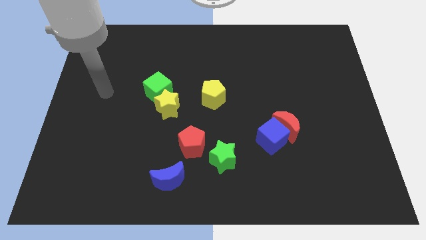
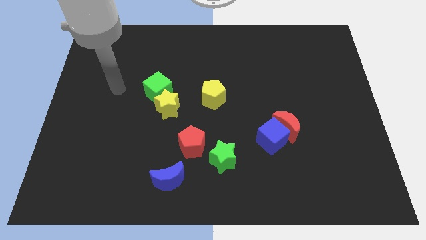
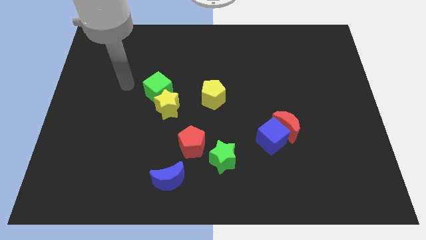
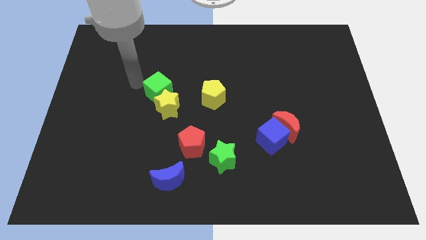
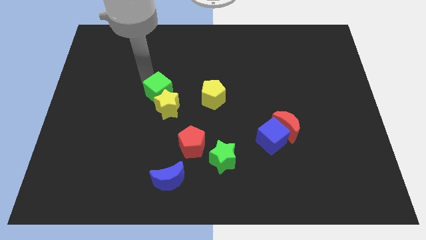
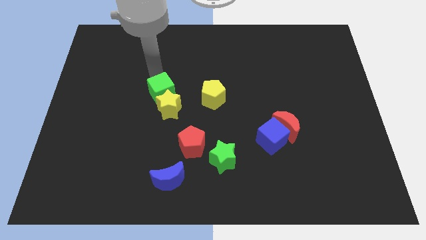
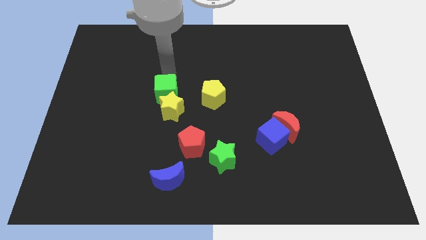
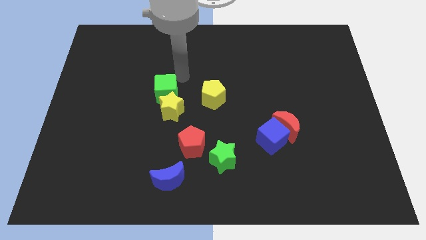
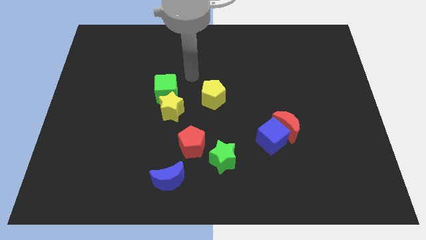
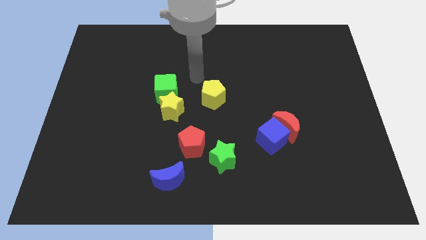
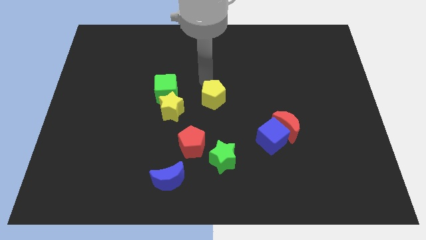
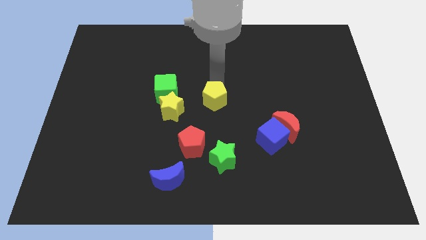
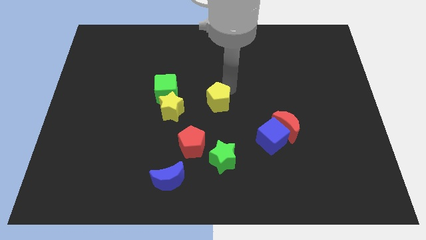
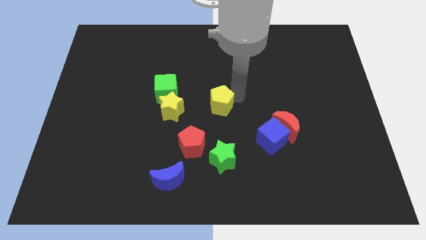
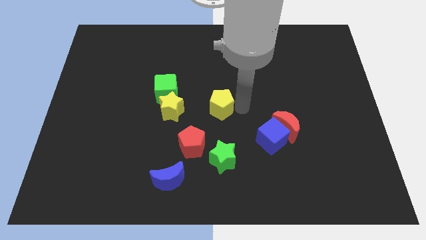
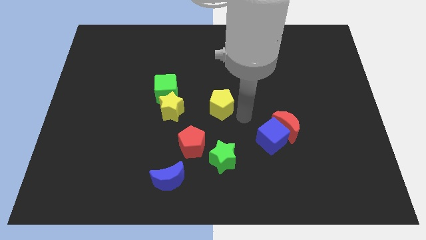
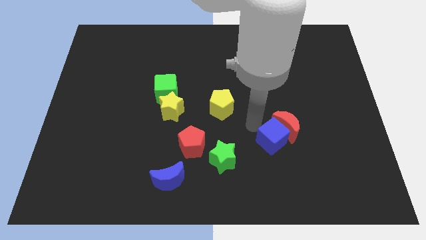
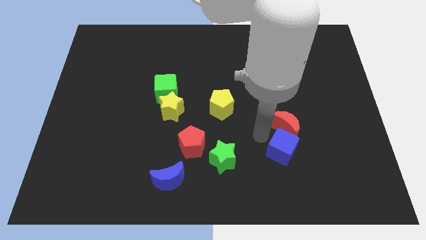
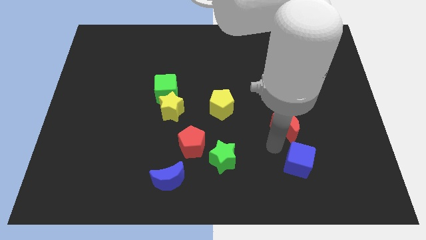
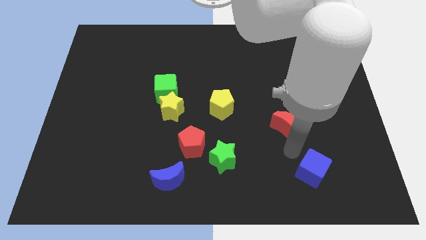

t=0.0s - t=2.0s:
separate the red moon from the blue cube

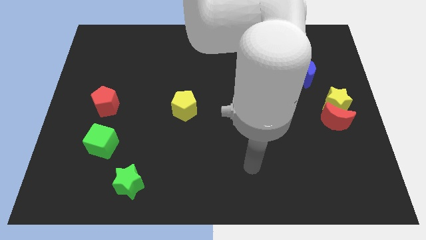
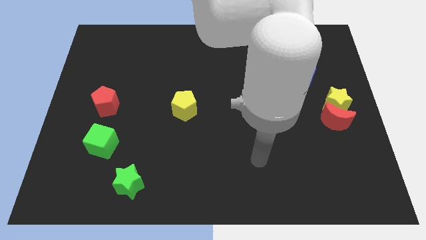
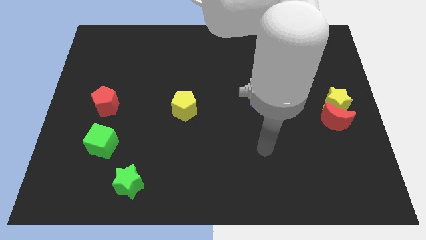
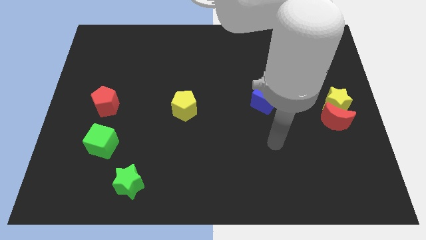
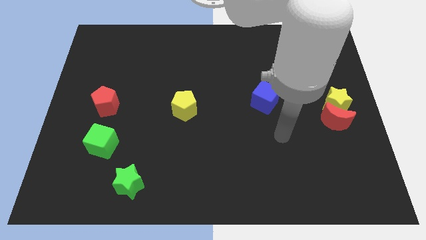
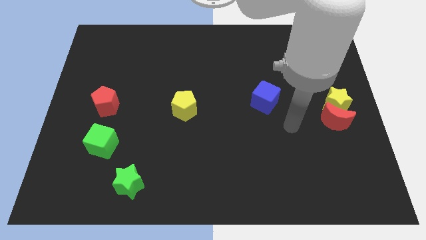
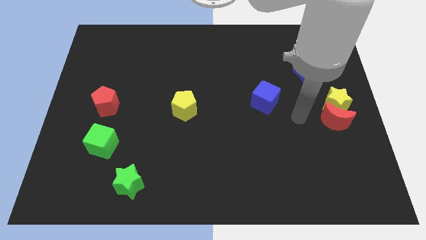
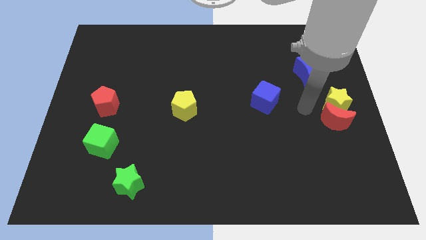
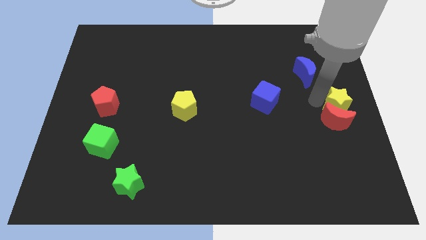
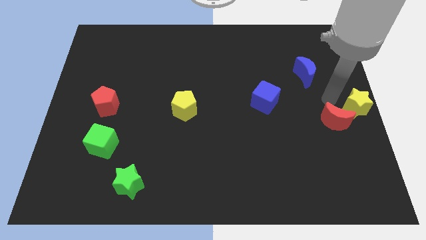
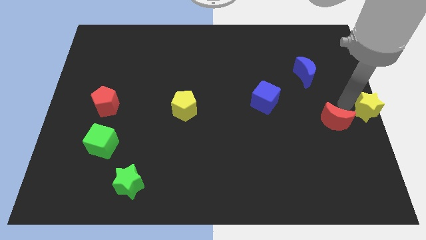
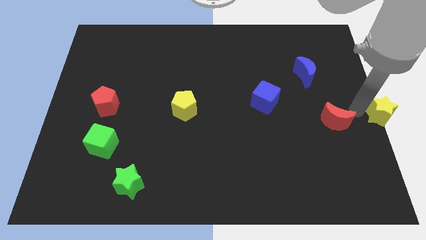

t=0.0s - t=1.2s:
pull the red moon apart from the yellow star

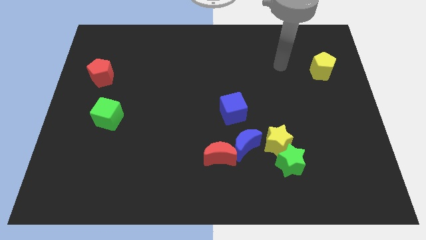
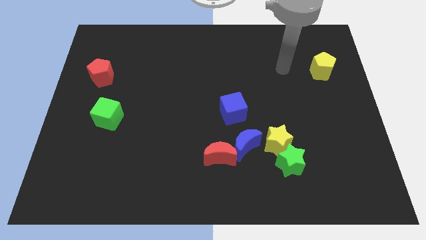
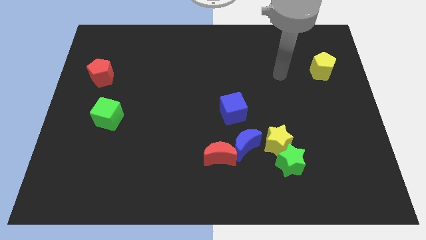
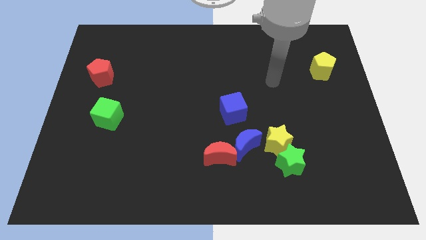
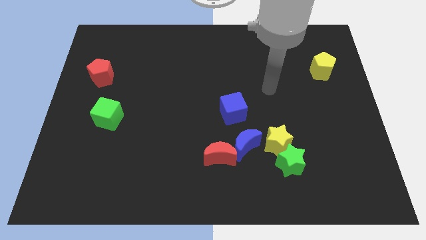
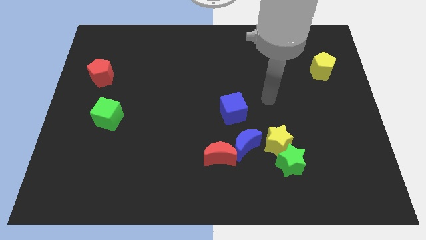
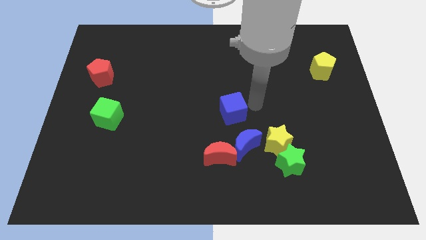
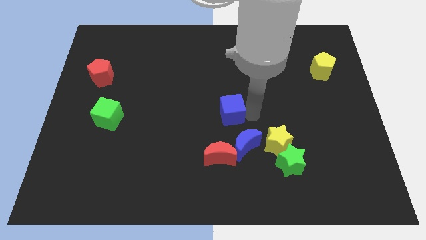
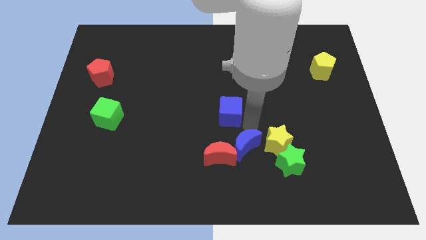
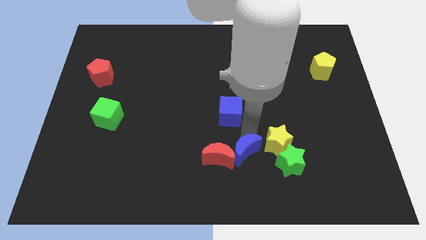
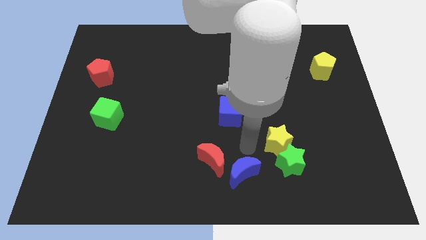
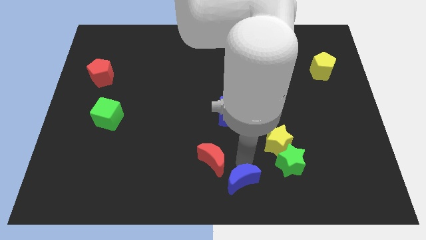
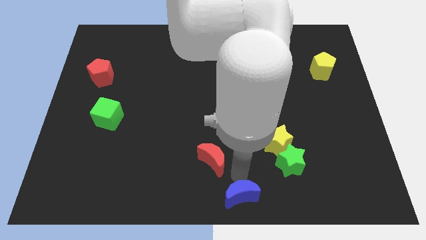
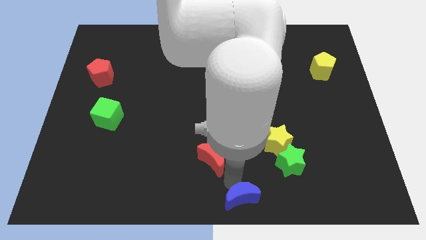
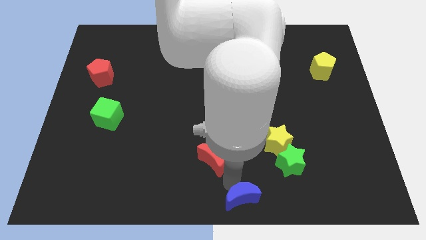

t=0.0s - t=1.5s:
separate the red moon from the blue moon

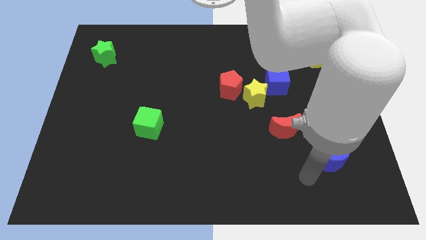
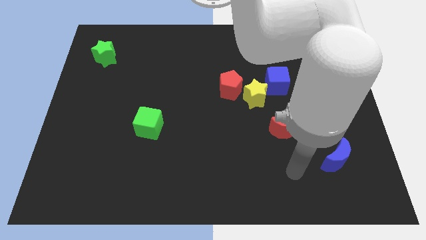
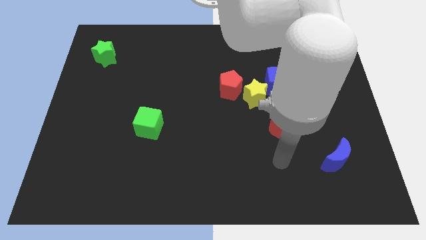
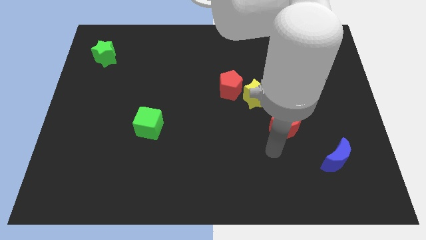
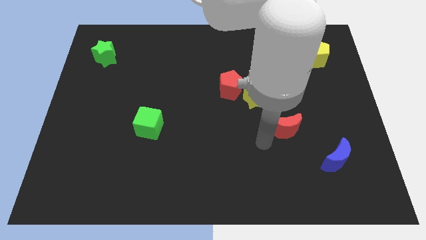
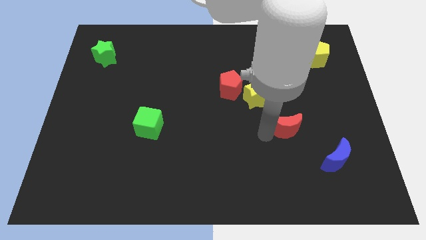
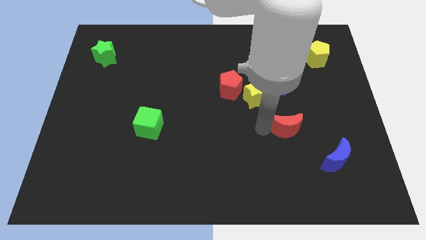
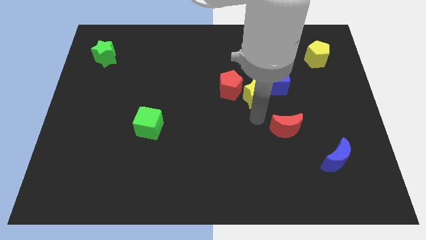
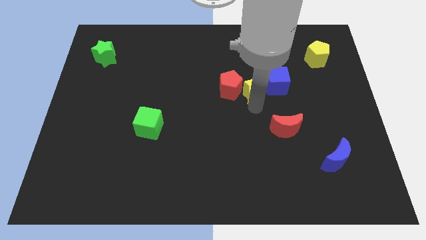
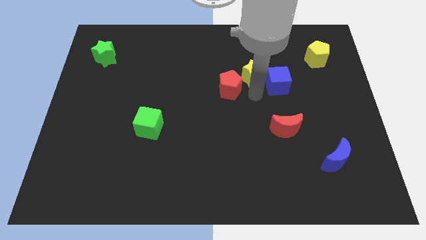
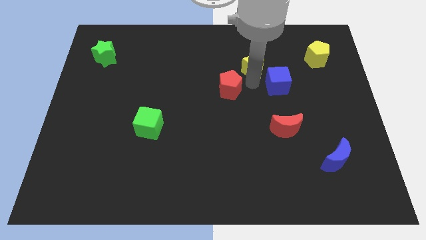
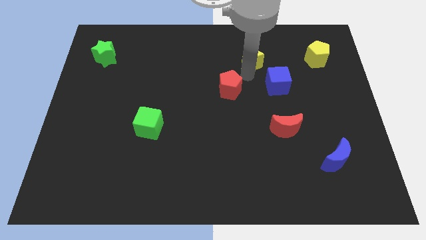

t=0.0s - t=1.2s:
pull the red pentagon apart from the yellow star

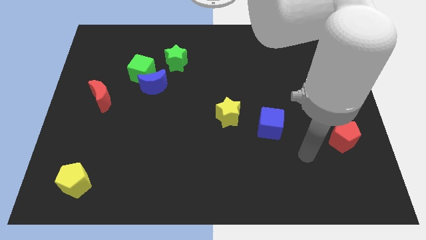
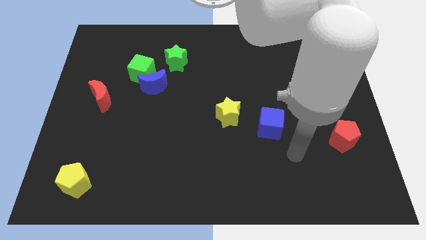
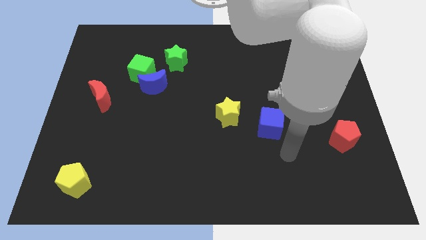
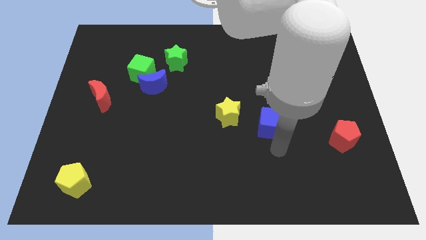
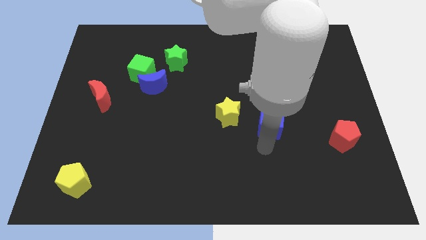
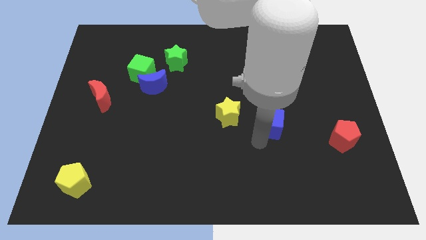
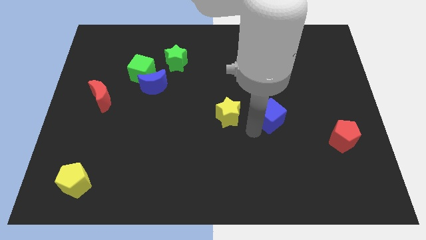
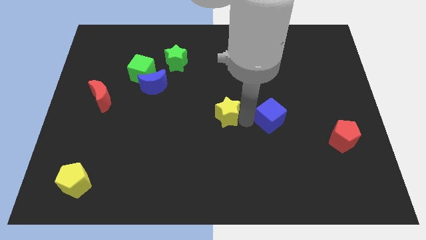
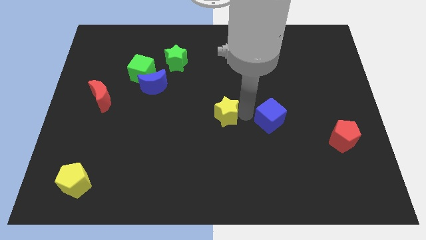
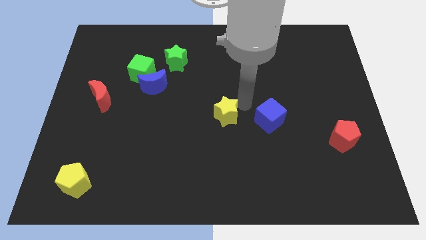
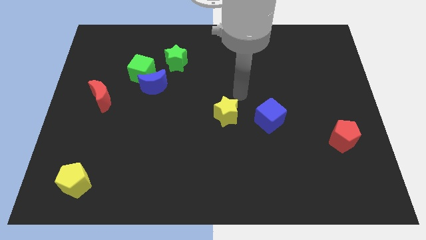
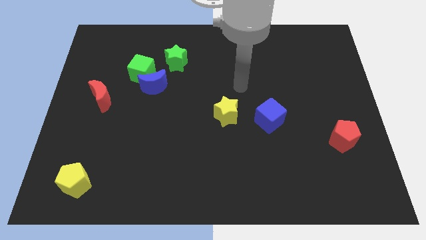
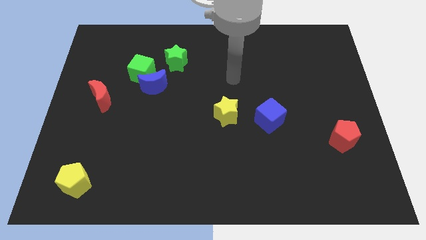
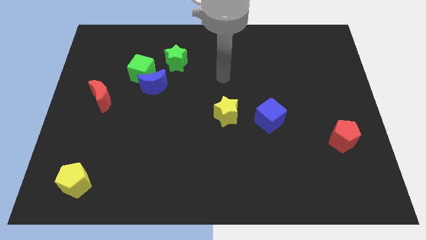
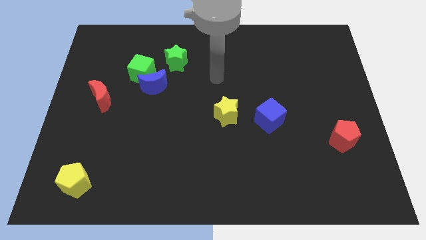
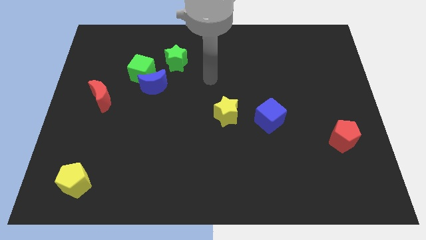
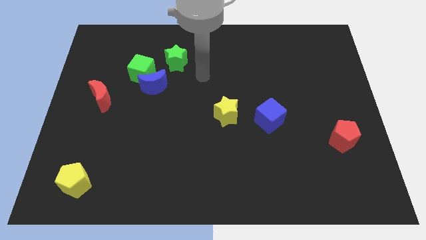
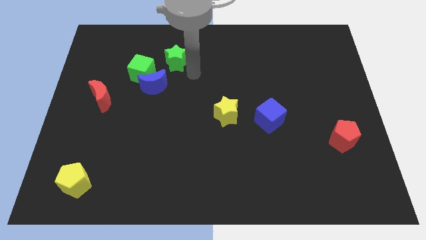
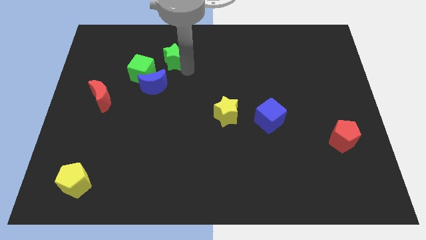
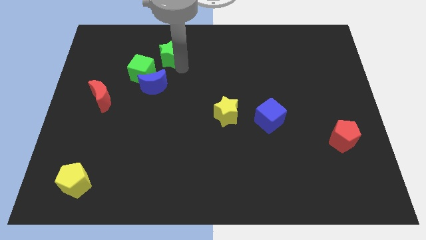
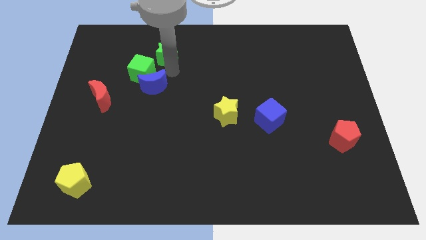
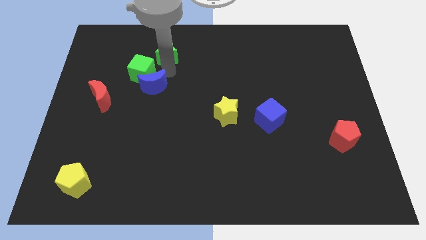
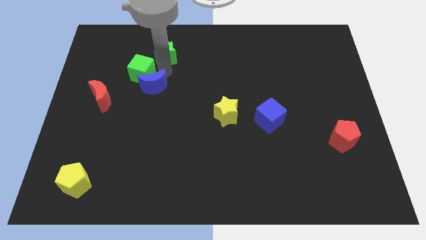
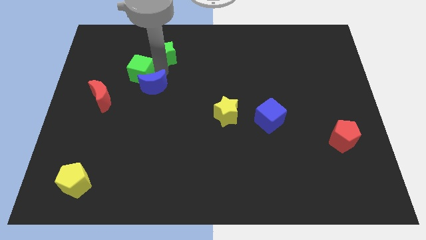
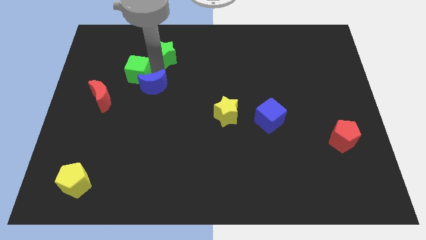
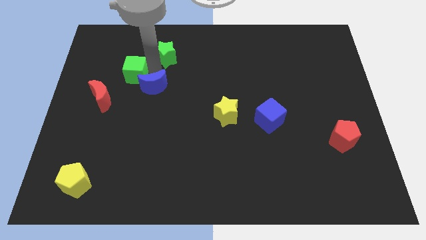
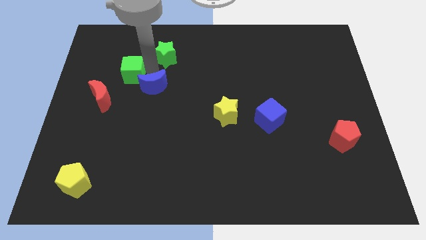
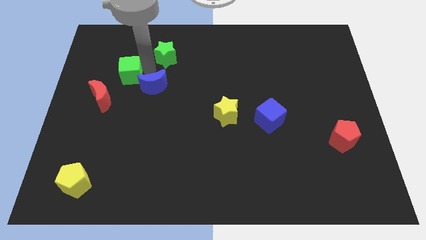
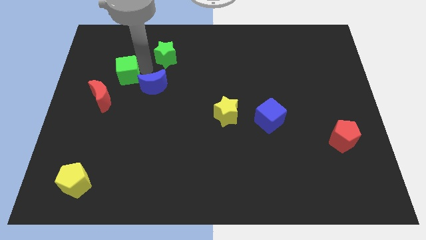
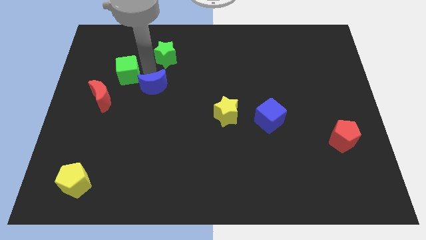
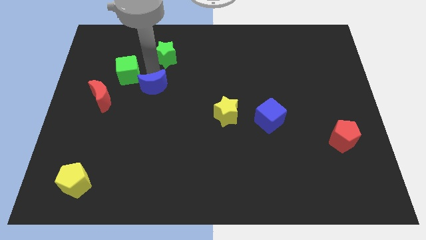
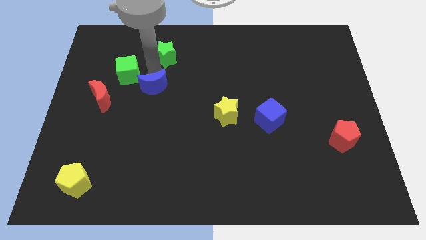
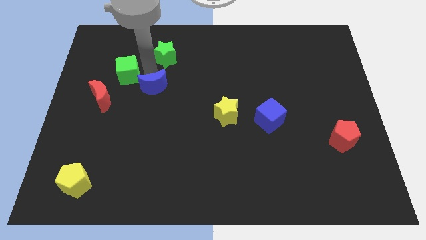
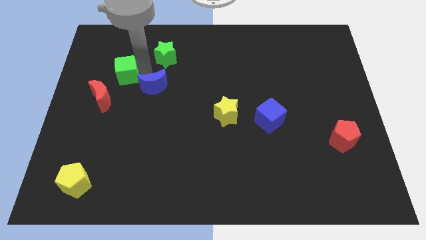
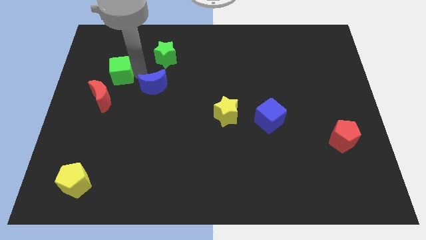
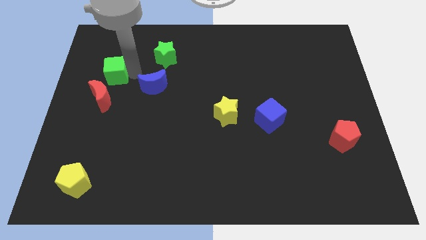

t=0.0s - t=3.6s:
pull the green cube apart from the blue moon and green star
